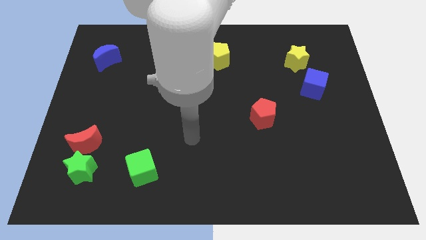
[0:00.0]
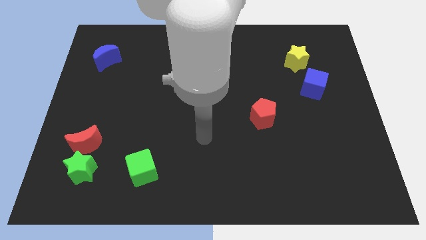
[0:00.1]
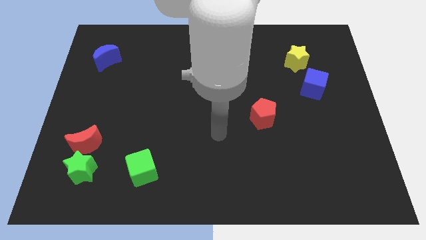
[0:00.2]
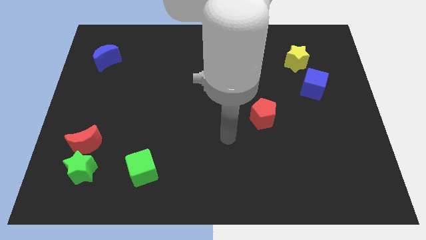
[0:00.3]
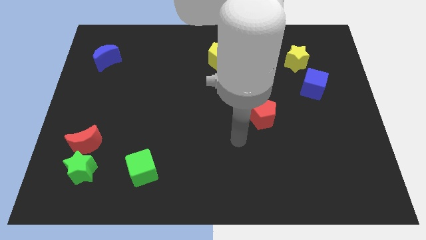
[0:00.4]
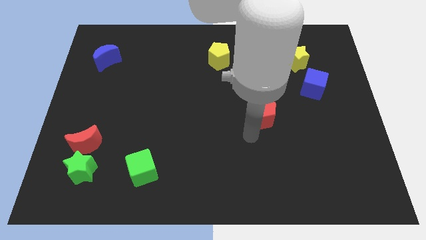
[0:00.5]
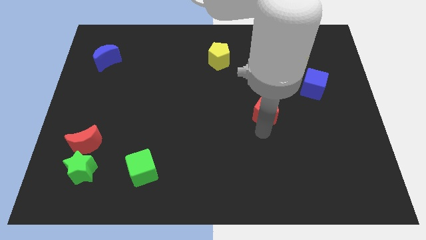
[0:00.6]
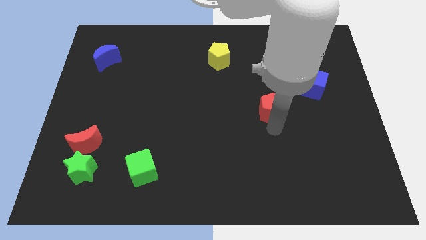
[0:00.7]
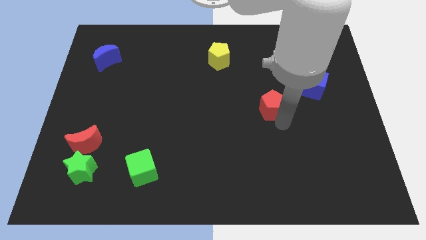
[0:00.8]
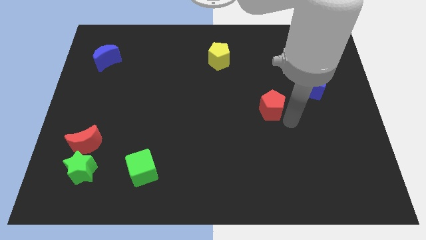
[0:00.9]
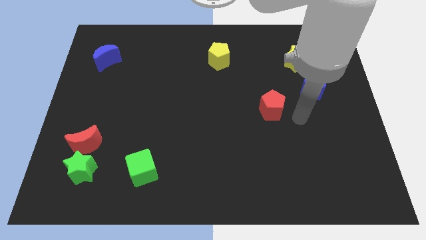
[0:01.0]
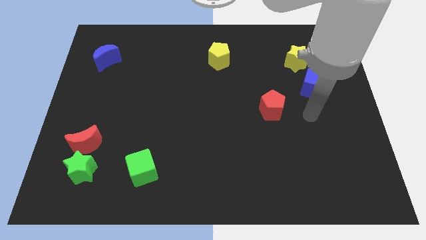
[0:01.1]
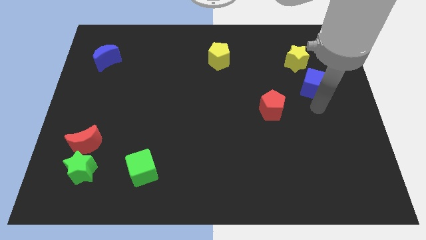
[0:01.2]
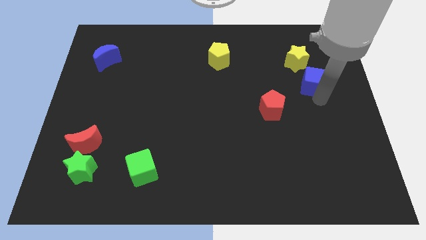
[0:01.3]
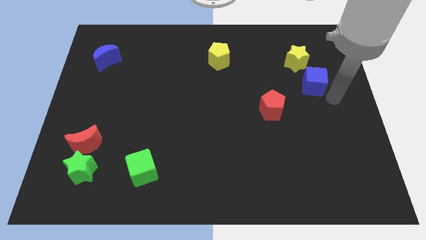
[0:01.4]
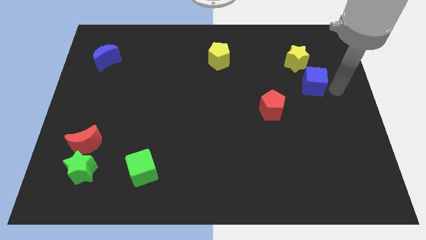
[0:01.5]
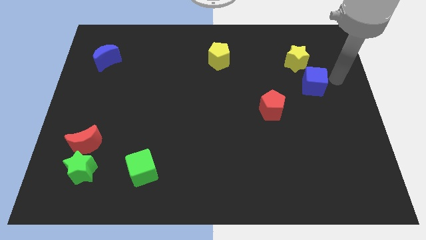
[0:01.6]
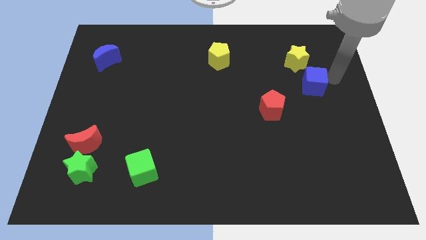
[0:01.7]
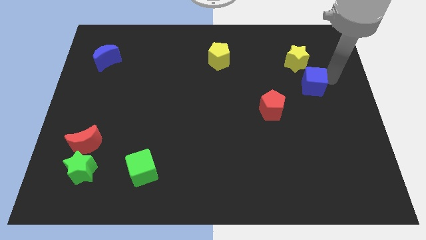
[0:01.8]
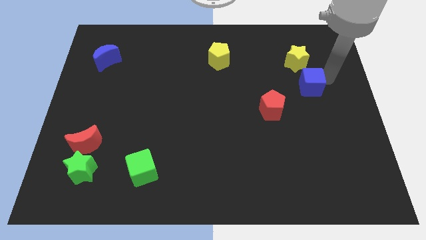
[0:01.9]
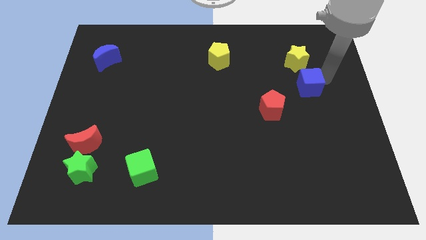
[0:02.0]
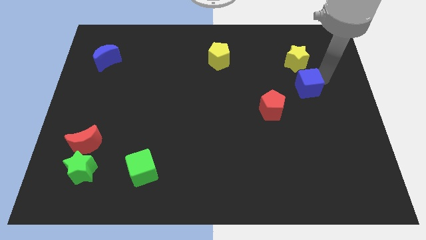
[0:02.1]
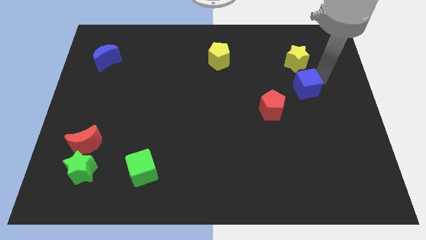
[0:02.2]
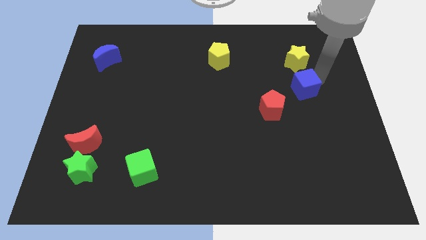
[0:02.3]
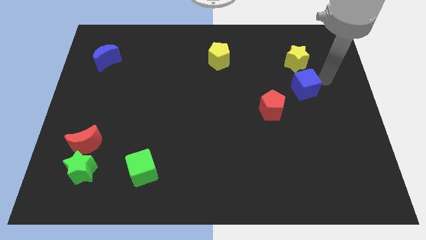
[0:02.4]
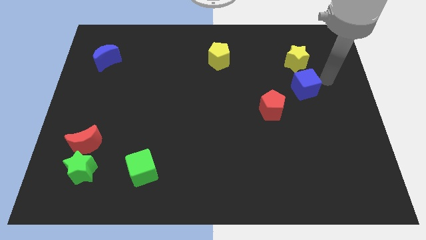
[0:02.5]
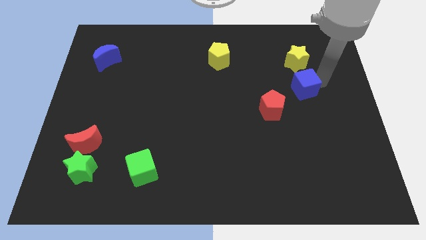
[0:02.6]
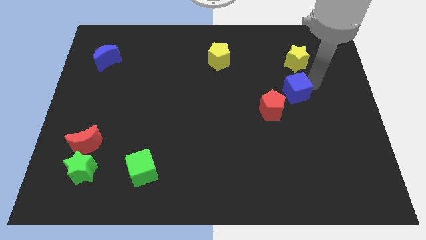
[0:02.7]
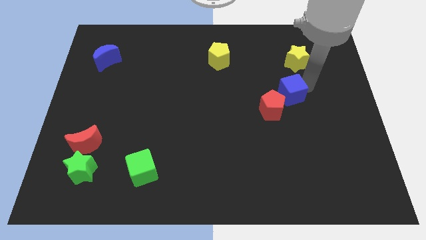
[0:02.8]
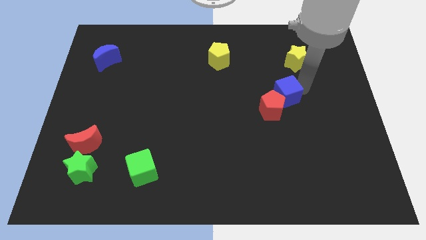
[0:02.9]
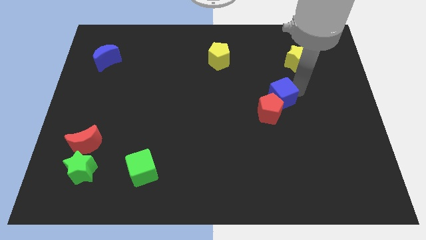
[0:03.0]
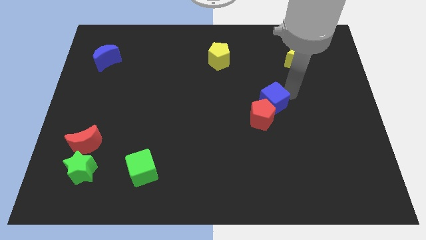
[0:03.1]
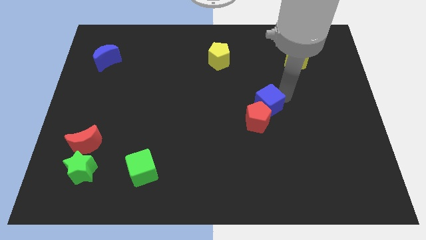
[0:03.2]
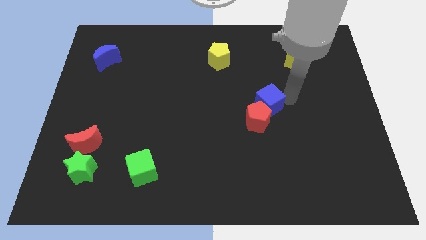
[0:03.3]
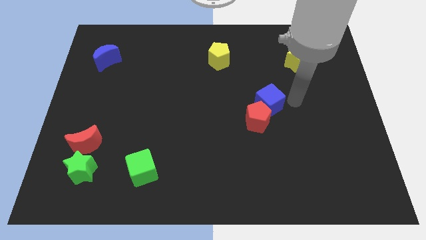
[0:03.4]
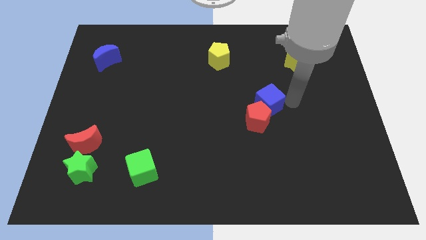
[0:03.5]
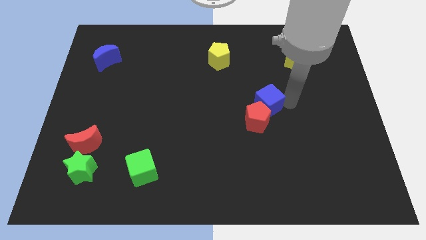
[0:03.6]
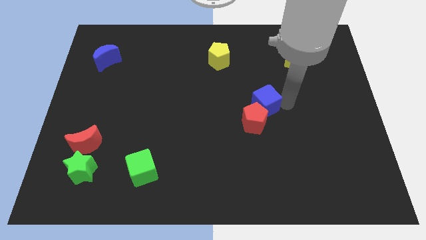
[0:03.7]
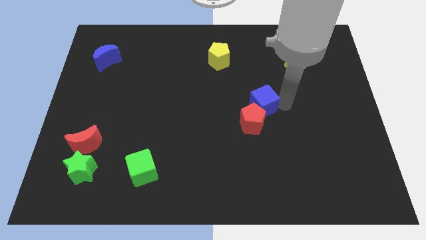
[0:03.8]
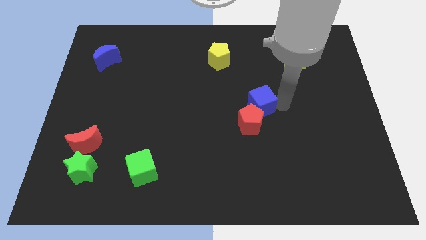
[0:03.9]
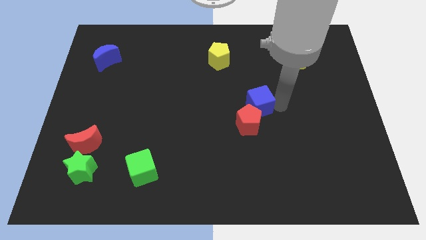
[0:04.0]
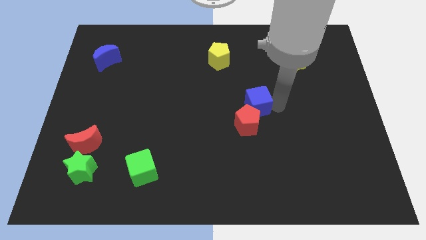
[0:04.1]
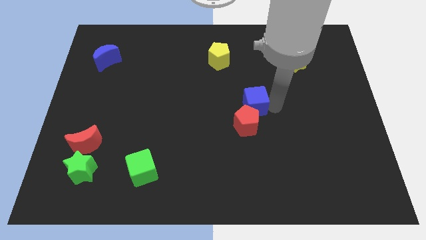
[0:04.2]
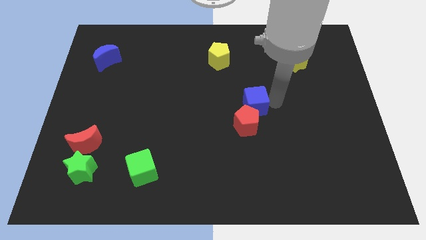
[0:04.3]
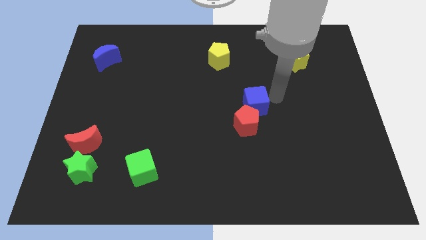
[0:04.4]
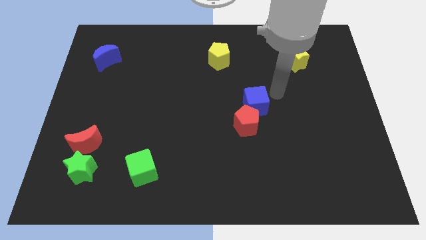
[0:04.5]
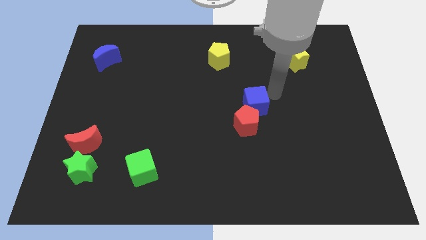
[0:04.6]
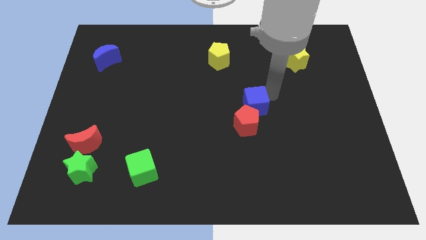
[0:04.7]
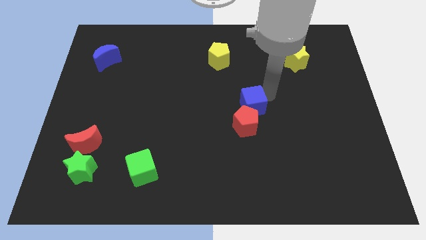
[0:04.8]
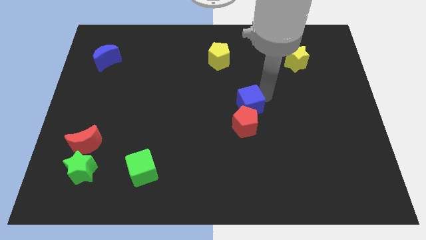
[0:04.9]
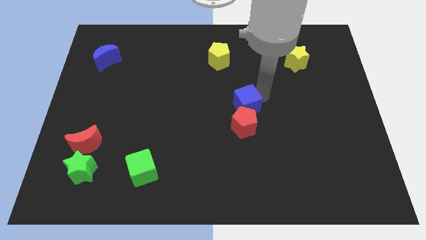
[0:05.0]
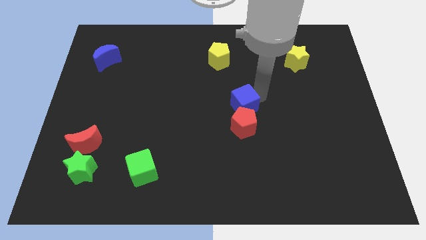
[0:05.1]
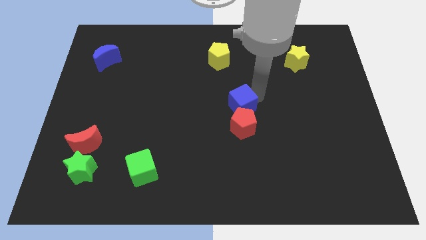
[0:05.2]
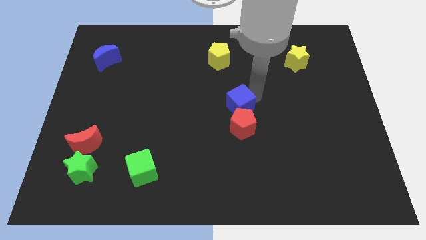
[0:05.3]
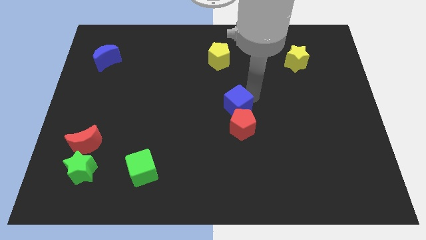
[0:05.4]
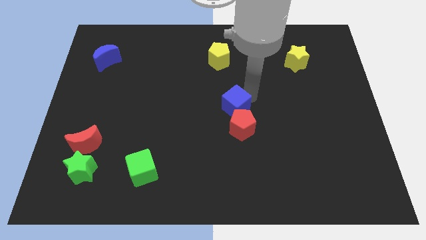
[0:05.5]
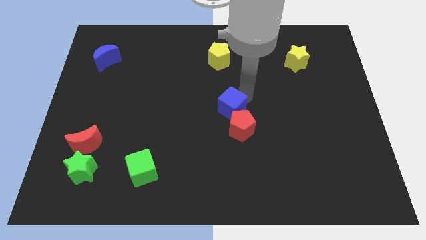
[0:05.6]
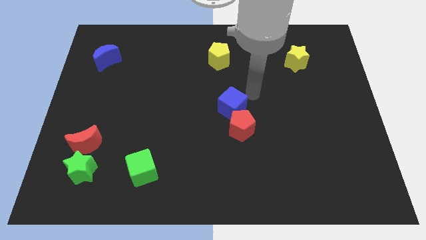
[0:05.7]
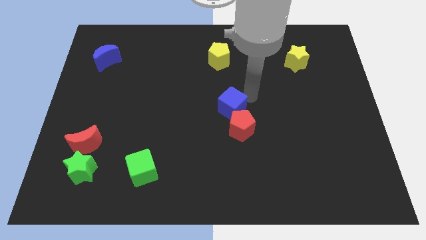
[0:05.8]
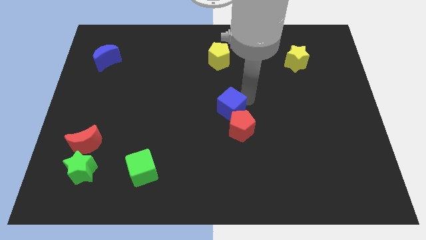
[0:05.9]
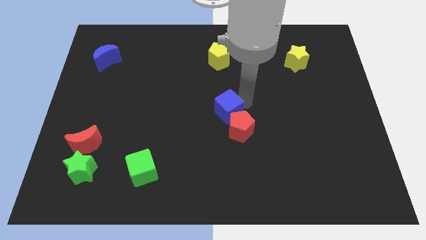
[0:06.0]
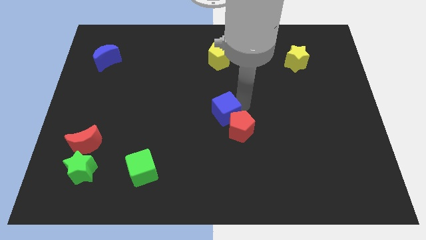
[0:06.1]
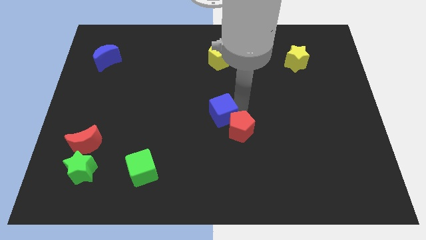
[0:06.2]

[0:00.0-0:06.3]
push the blue cube to the left of the red pentagon
